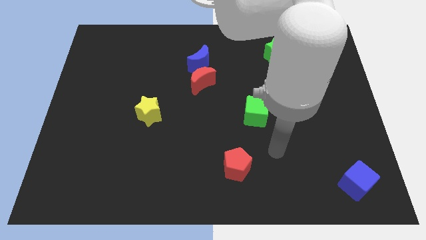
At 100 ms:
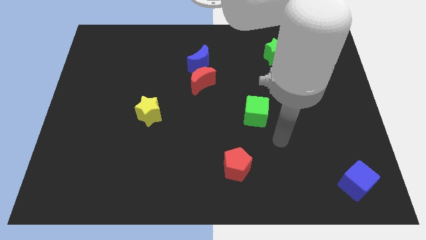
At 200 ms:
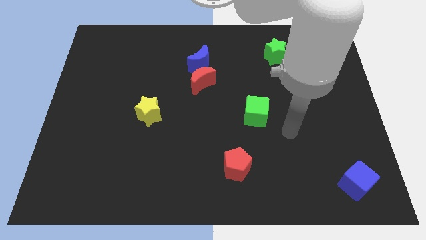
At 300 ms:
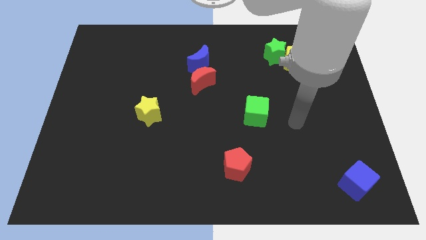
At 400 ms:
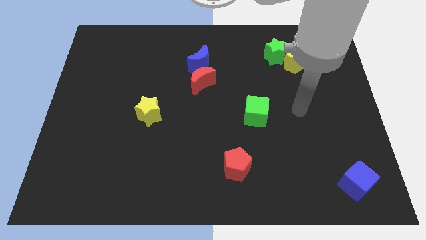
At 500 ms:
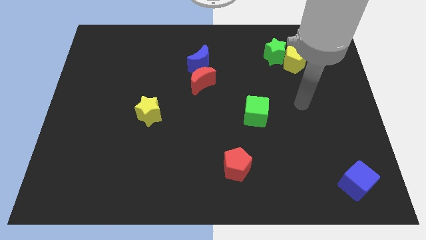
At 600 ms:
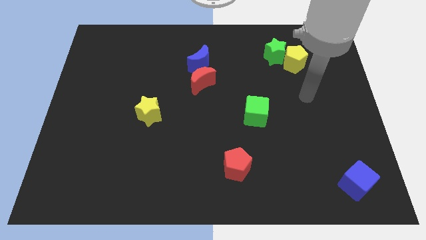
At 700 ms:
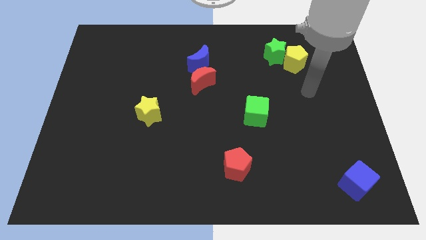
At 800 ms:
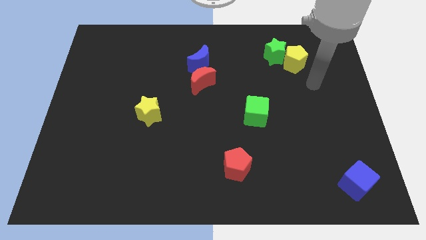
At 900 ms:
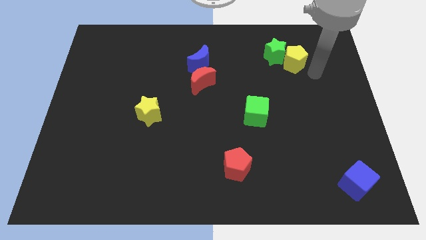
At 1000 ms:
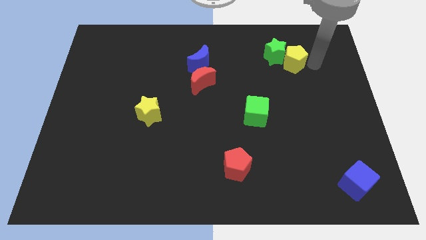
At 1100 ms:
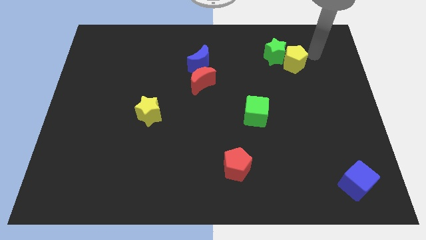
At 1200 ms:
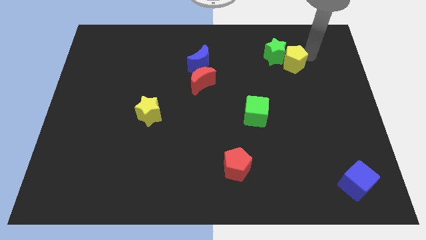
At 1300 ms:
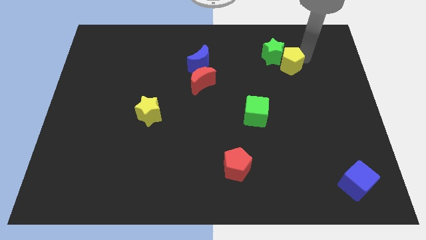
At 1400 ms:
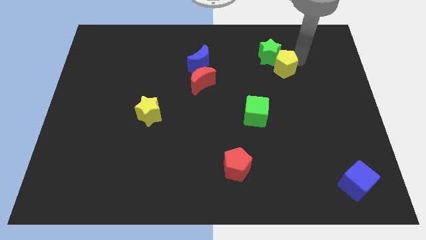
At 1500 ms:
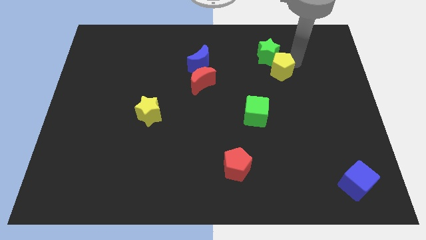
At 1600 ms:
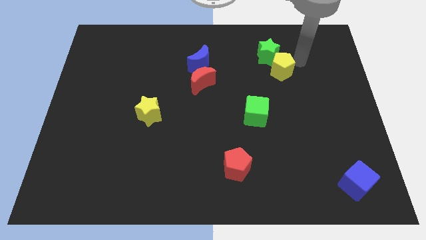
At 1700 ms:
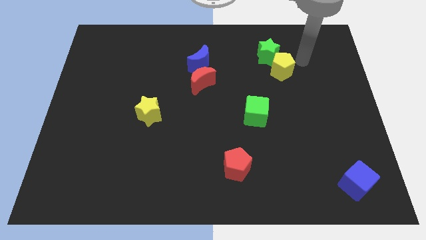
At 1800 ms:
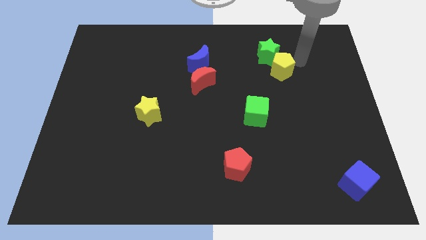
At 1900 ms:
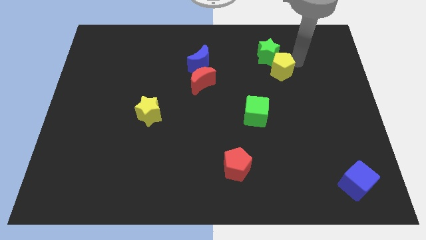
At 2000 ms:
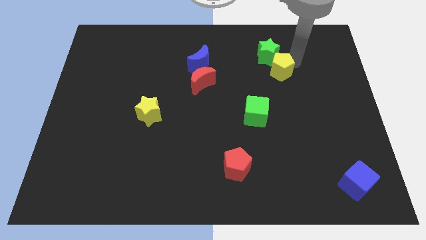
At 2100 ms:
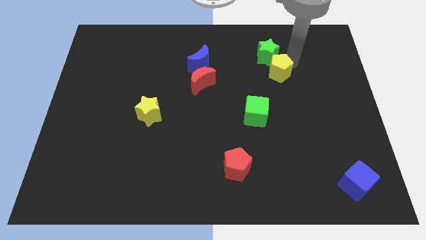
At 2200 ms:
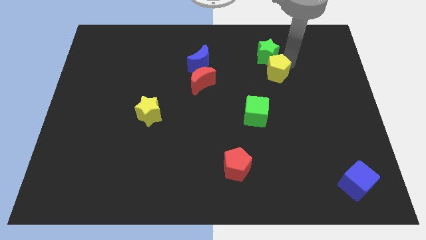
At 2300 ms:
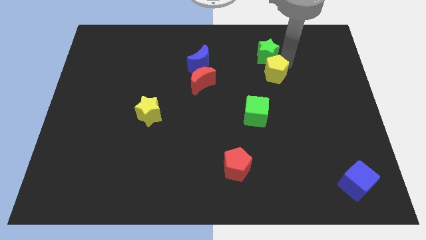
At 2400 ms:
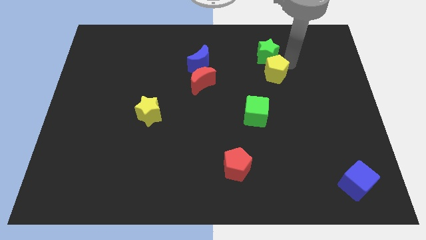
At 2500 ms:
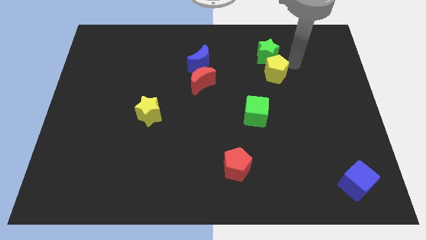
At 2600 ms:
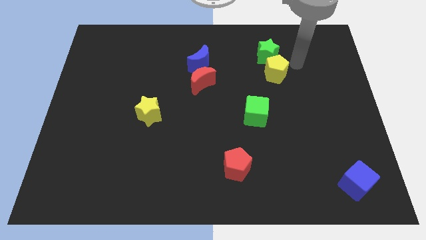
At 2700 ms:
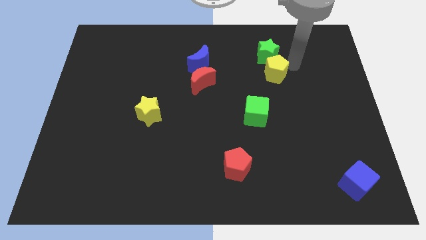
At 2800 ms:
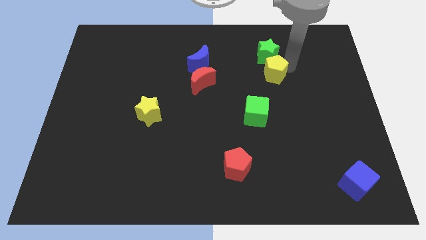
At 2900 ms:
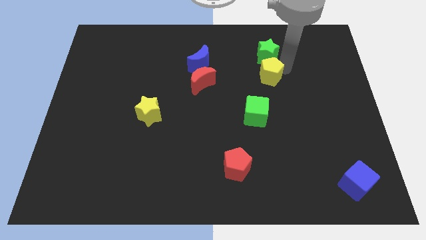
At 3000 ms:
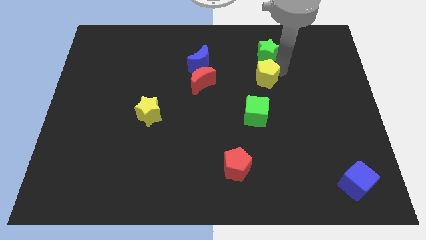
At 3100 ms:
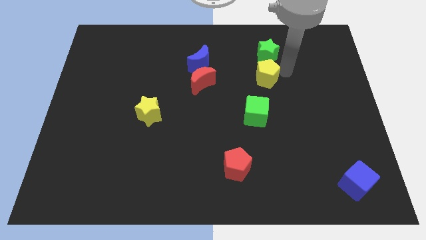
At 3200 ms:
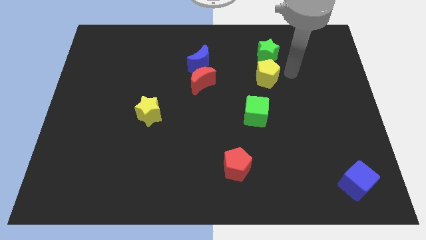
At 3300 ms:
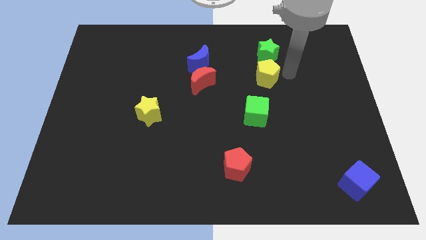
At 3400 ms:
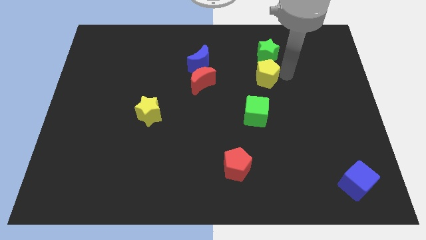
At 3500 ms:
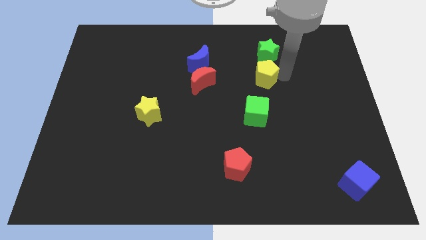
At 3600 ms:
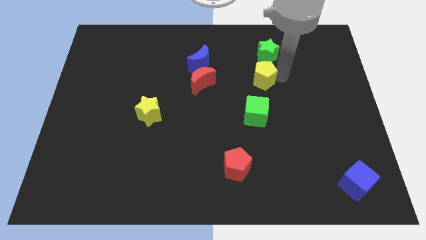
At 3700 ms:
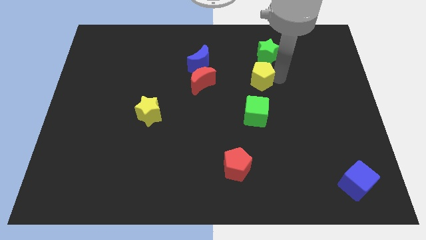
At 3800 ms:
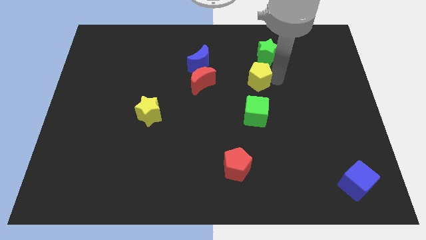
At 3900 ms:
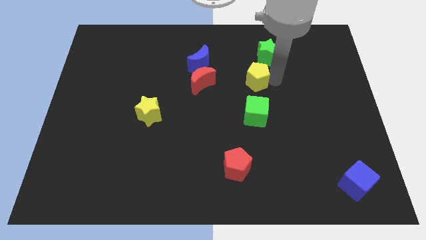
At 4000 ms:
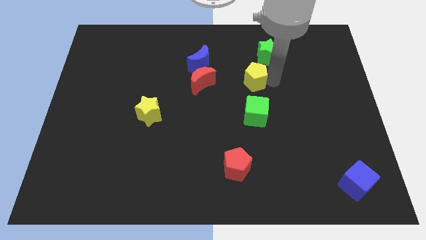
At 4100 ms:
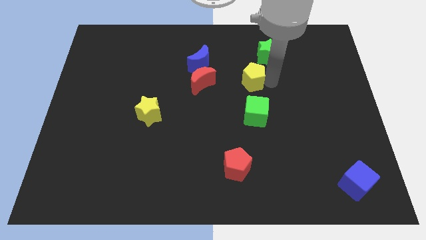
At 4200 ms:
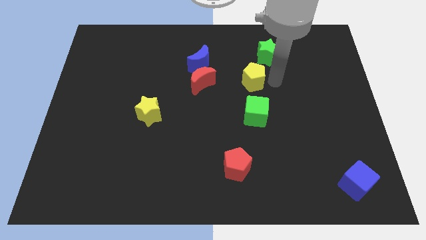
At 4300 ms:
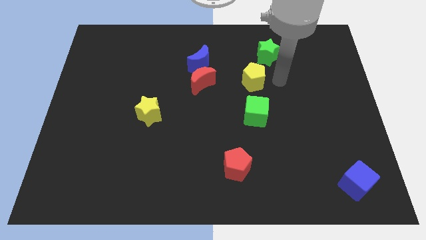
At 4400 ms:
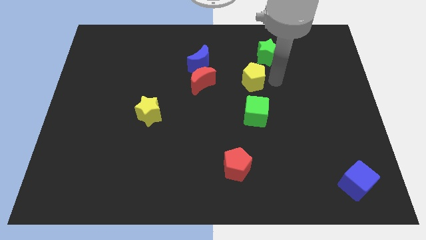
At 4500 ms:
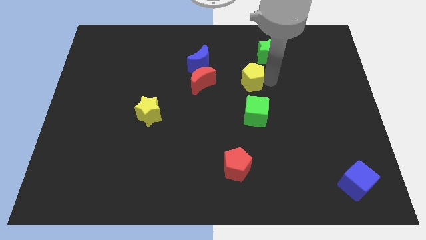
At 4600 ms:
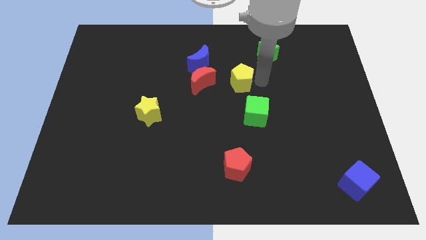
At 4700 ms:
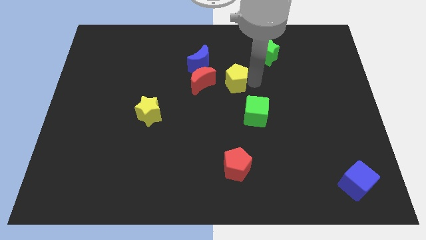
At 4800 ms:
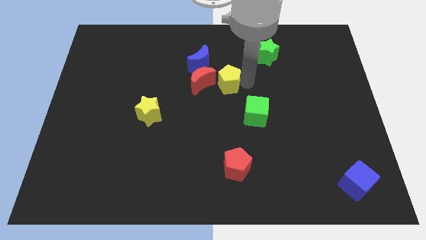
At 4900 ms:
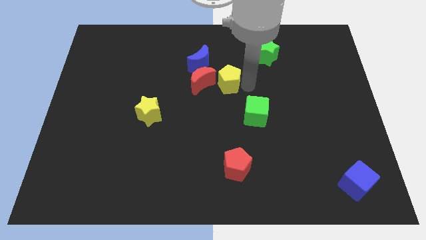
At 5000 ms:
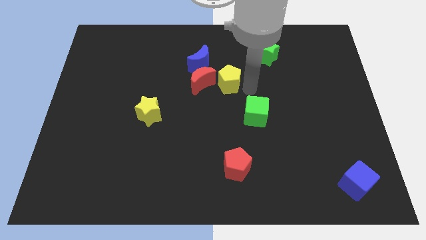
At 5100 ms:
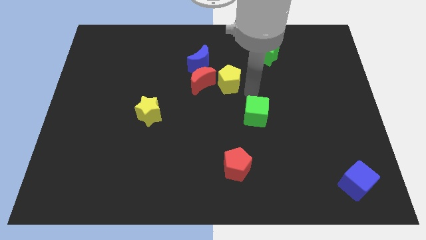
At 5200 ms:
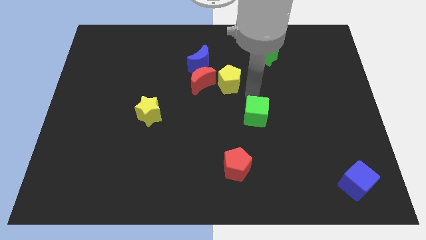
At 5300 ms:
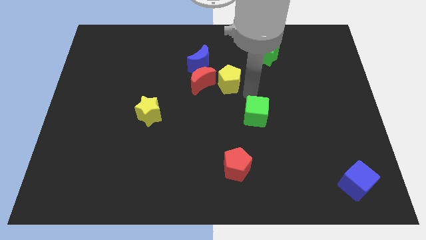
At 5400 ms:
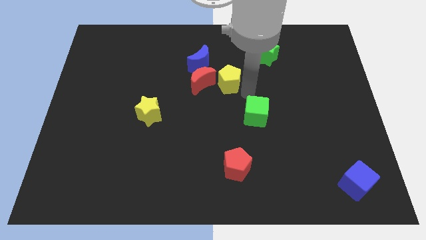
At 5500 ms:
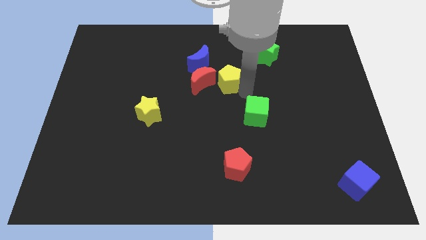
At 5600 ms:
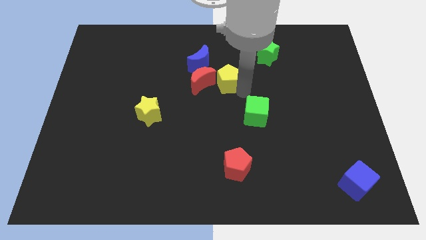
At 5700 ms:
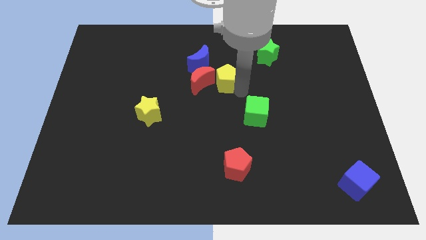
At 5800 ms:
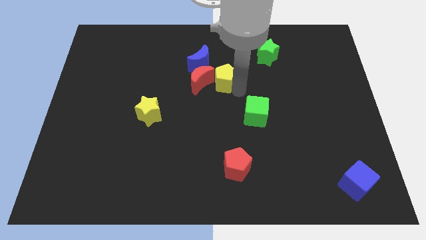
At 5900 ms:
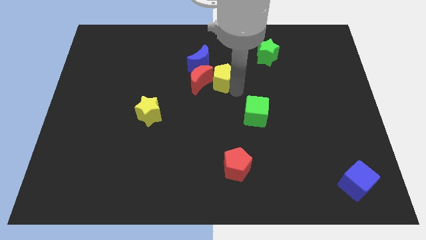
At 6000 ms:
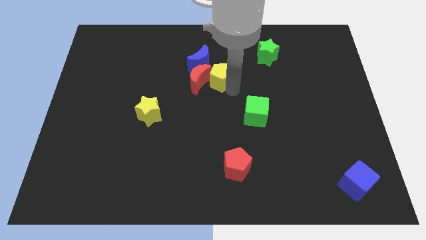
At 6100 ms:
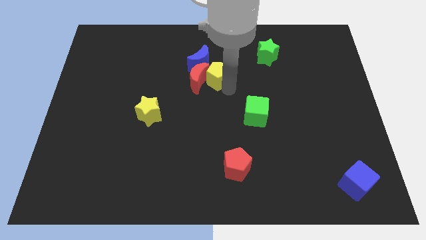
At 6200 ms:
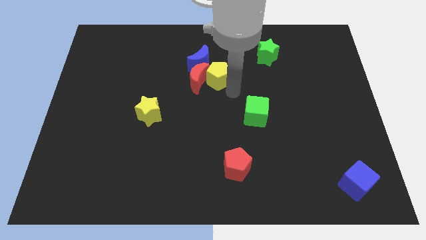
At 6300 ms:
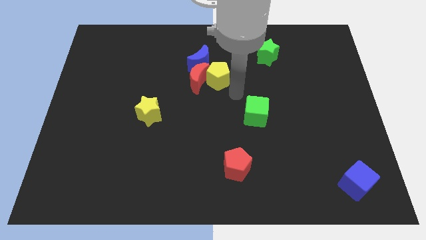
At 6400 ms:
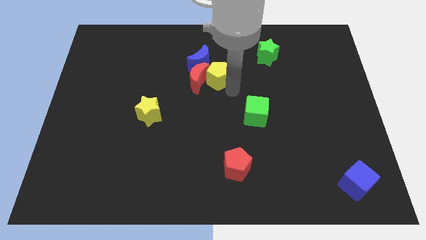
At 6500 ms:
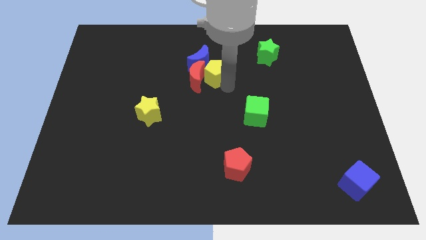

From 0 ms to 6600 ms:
slide the yellow pentagon to the blue moon
